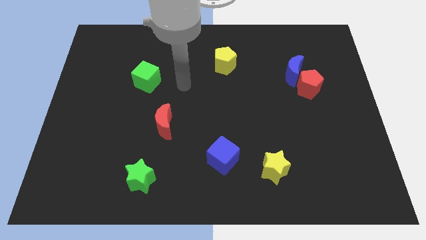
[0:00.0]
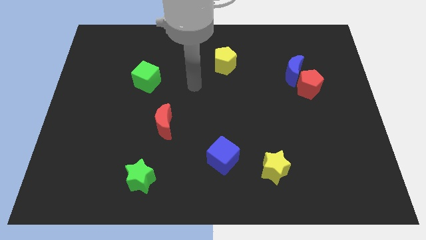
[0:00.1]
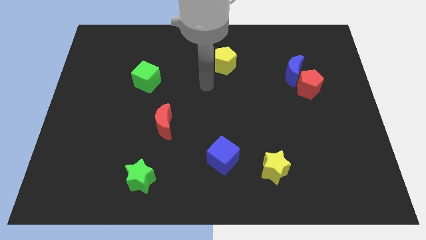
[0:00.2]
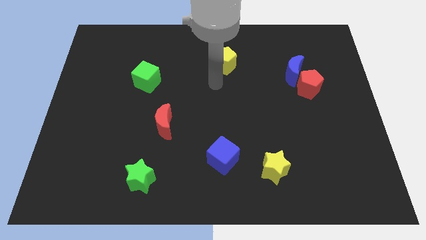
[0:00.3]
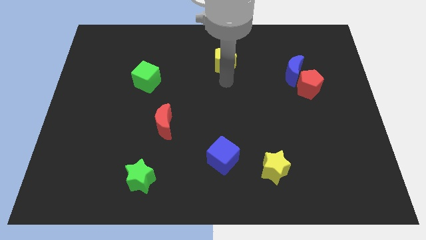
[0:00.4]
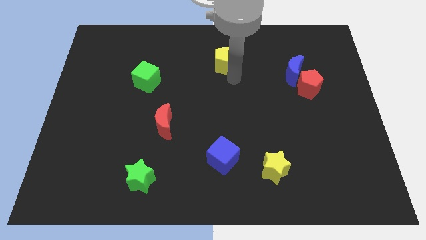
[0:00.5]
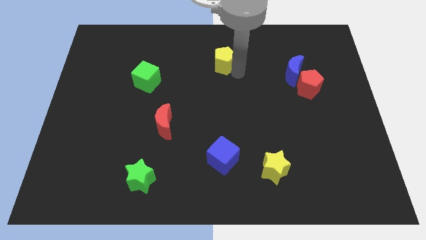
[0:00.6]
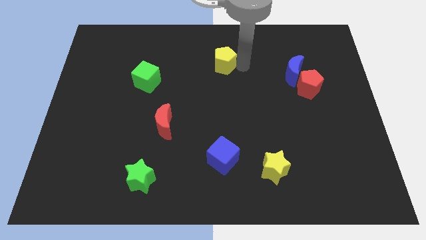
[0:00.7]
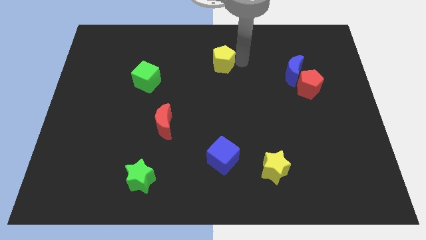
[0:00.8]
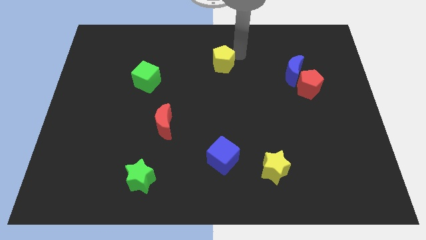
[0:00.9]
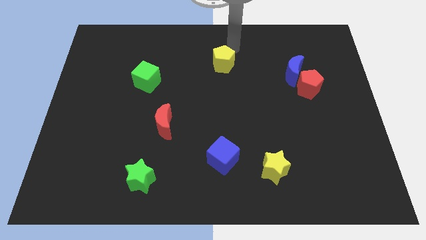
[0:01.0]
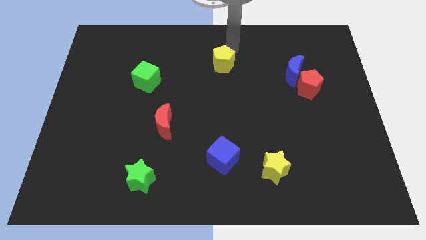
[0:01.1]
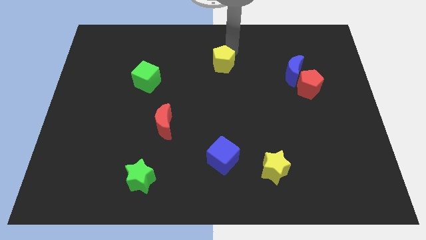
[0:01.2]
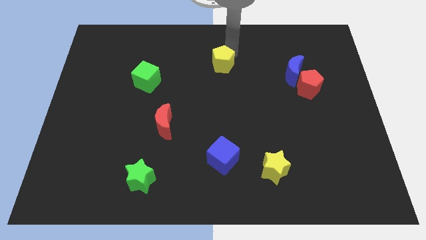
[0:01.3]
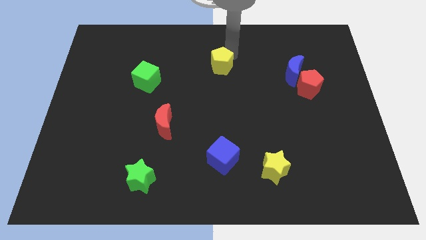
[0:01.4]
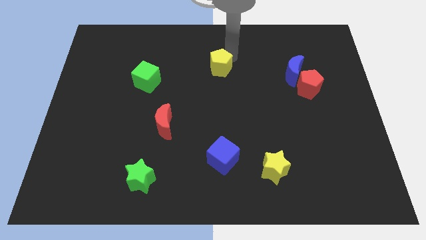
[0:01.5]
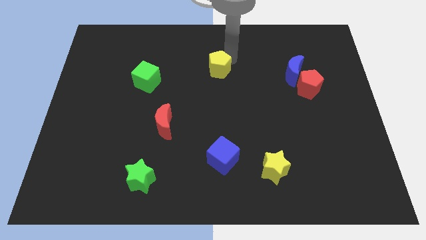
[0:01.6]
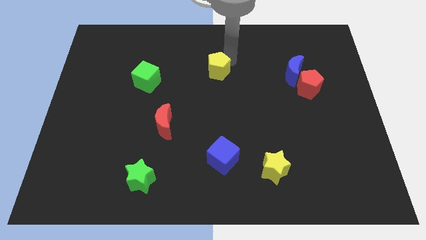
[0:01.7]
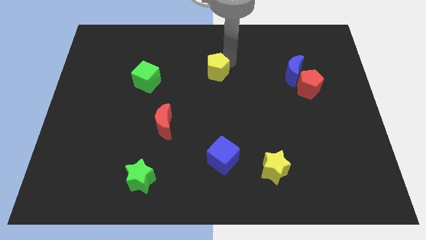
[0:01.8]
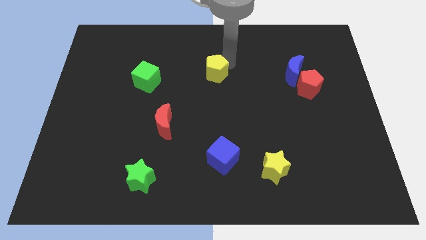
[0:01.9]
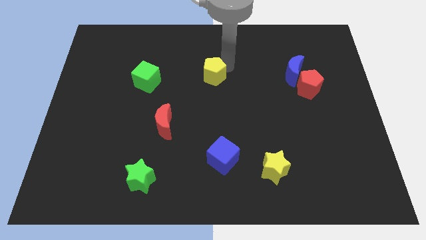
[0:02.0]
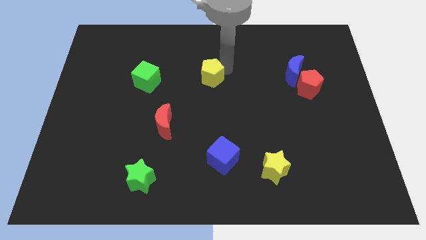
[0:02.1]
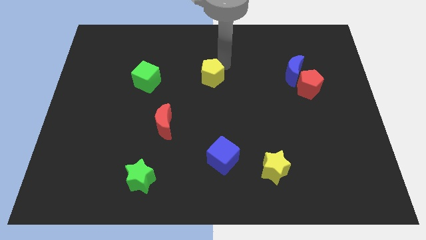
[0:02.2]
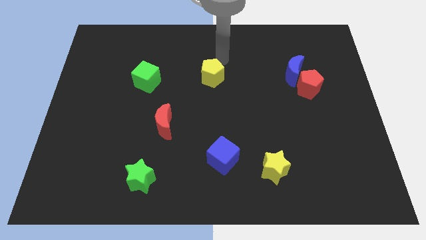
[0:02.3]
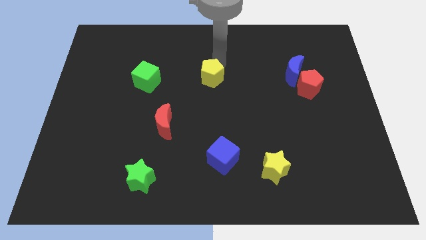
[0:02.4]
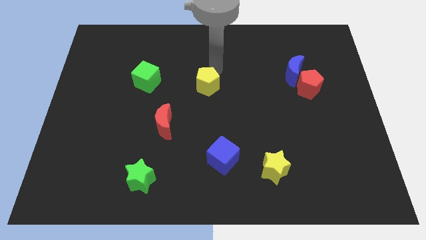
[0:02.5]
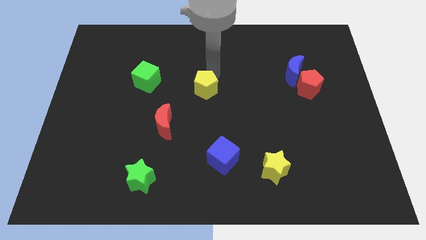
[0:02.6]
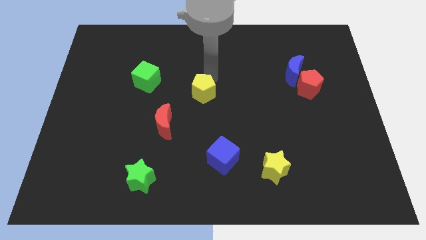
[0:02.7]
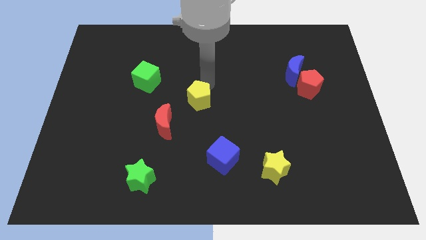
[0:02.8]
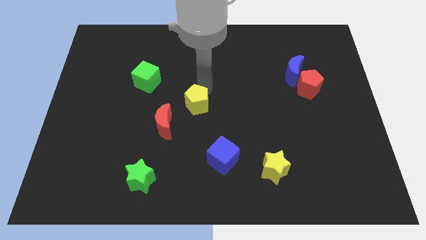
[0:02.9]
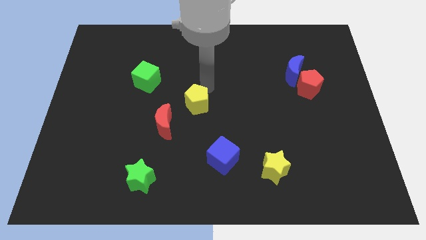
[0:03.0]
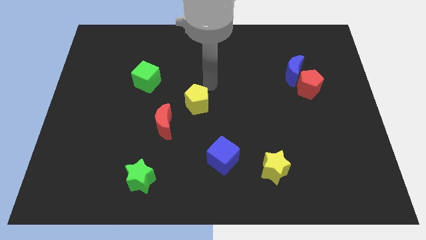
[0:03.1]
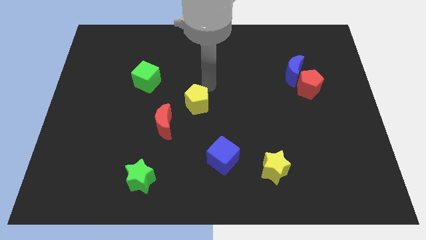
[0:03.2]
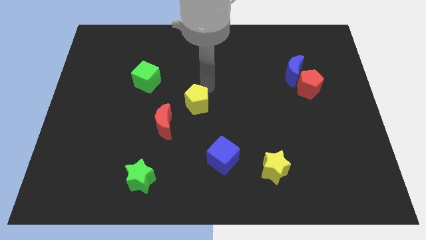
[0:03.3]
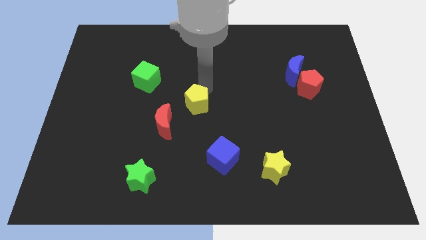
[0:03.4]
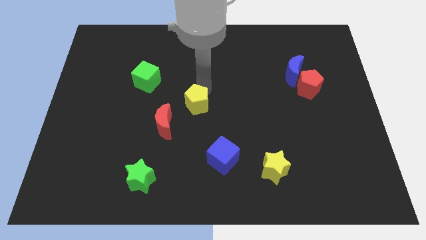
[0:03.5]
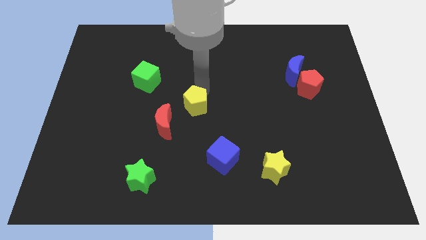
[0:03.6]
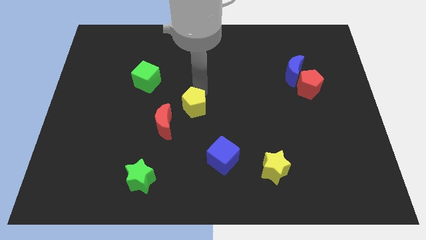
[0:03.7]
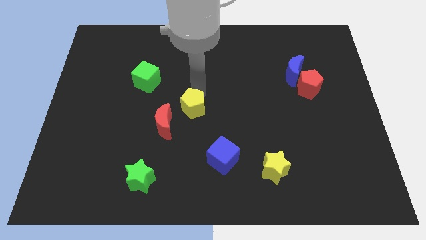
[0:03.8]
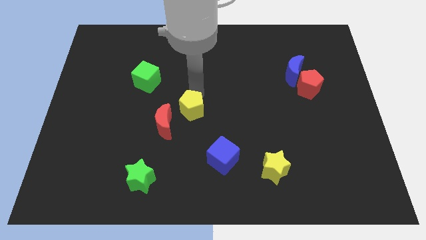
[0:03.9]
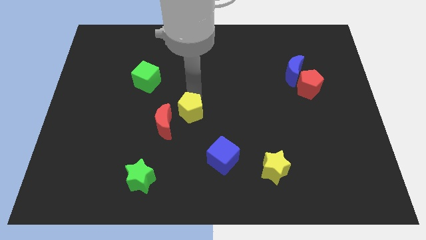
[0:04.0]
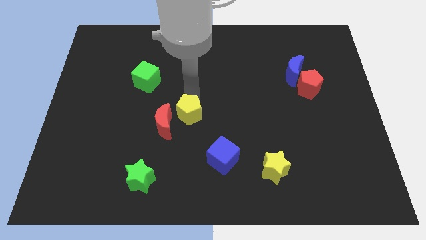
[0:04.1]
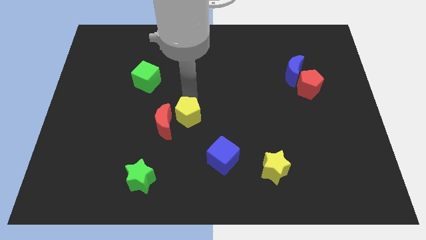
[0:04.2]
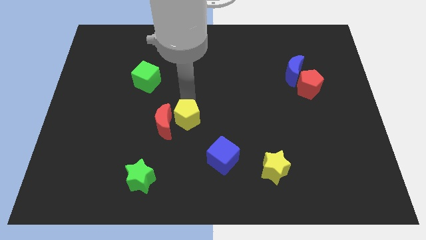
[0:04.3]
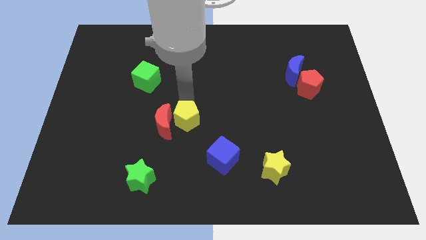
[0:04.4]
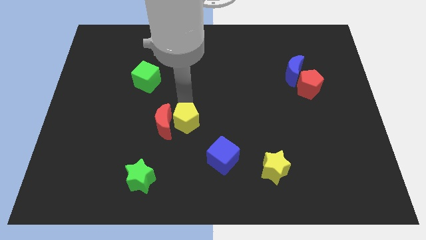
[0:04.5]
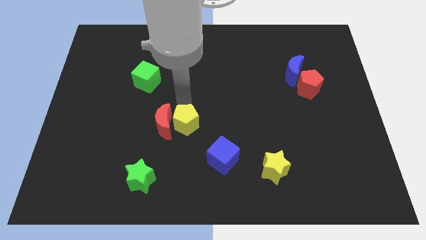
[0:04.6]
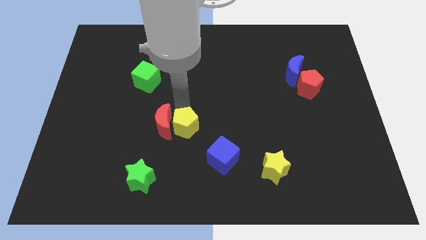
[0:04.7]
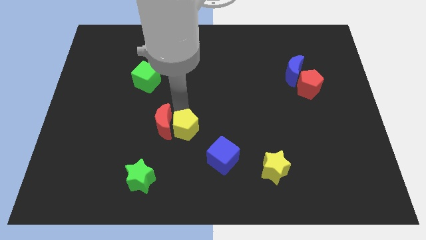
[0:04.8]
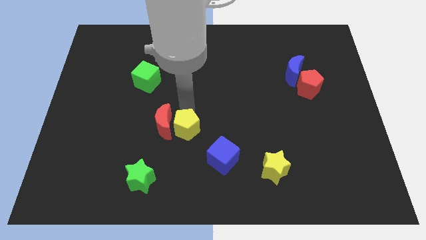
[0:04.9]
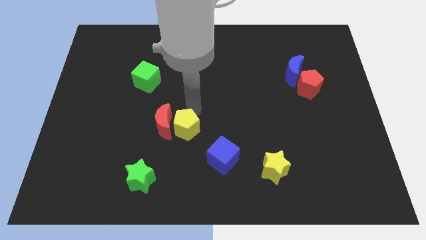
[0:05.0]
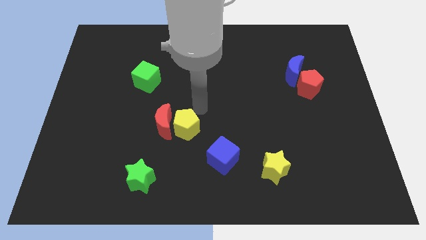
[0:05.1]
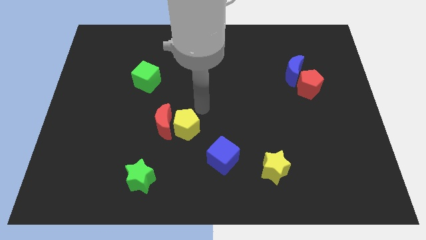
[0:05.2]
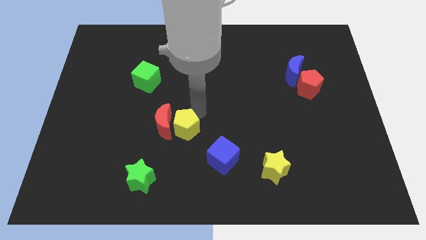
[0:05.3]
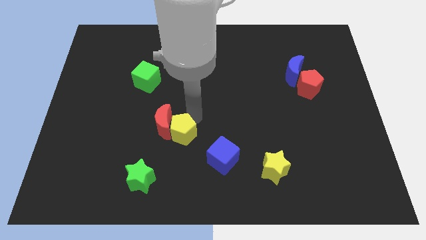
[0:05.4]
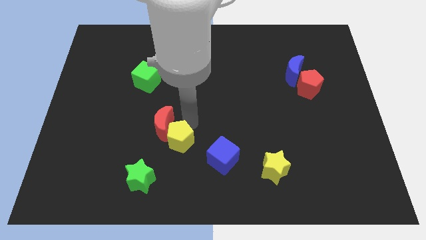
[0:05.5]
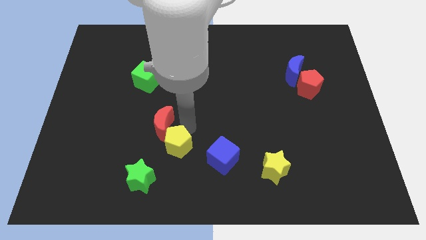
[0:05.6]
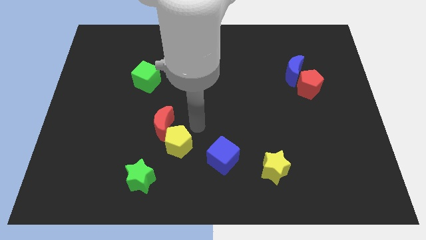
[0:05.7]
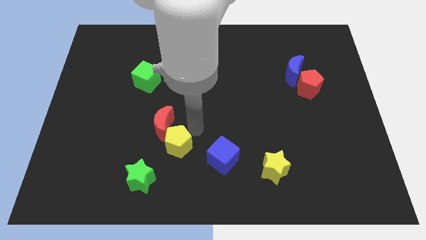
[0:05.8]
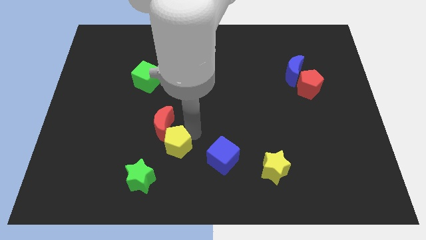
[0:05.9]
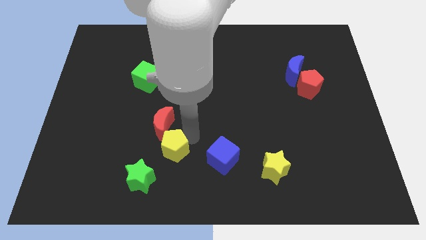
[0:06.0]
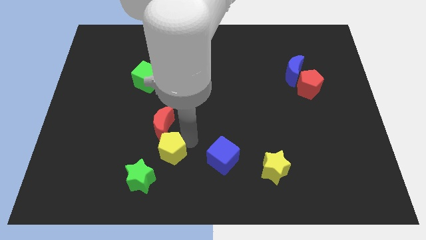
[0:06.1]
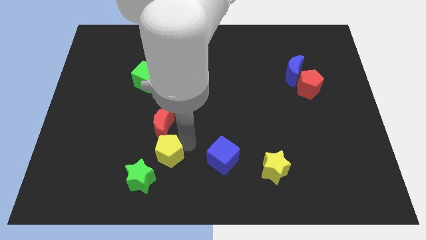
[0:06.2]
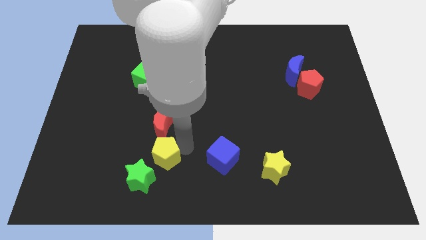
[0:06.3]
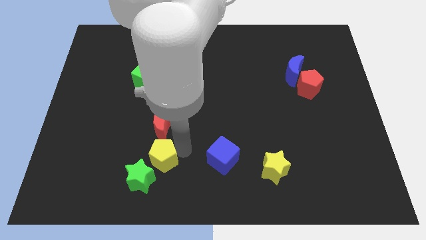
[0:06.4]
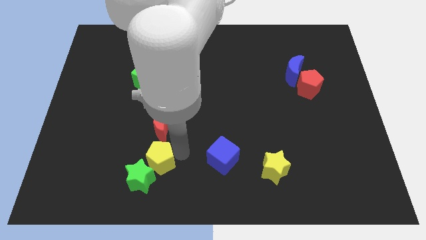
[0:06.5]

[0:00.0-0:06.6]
move the yellow pentagon next to the green star

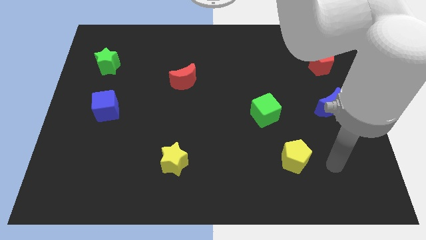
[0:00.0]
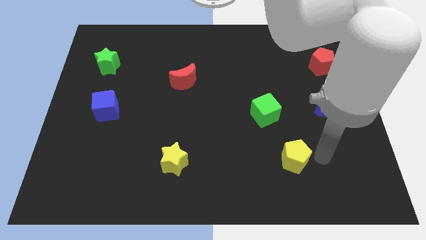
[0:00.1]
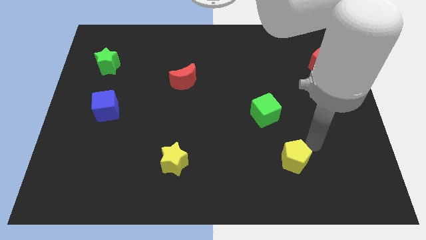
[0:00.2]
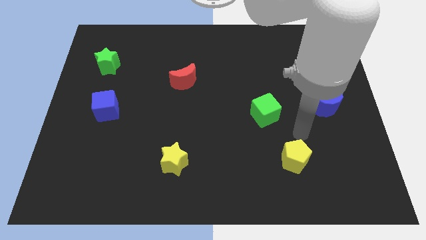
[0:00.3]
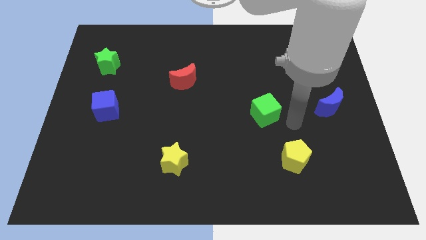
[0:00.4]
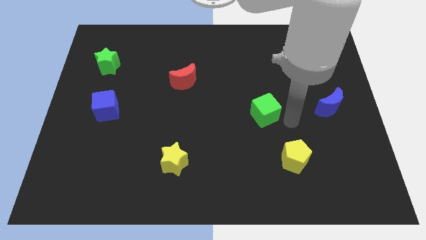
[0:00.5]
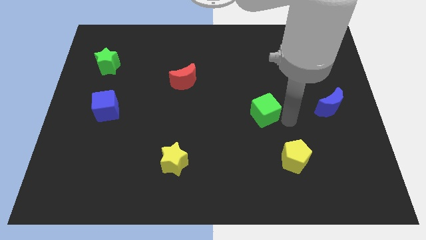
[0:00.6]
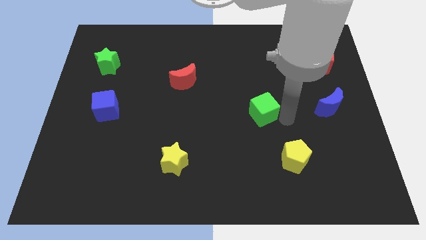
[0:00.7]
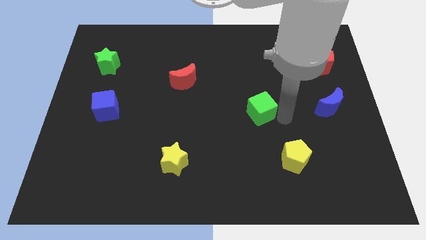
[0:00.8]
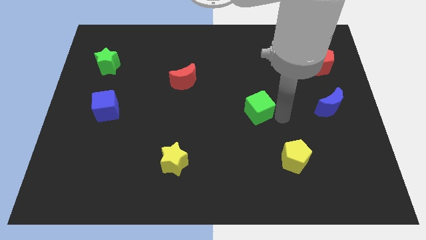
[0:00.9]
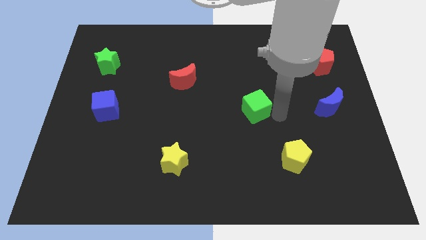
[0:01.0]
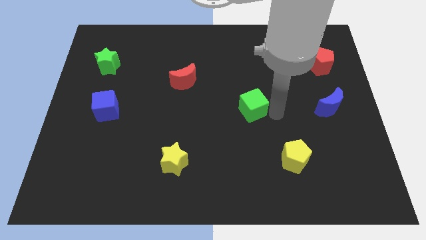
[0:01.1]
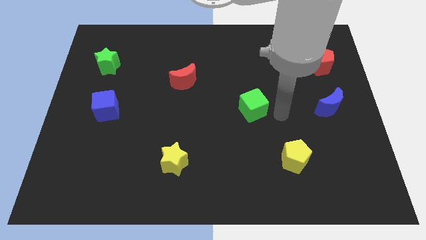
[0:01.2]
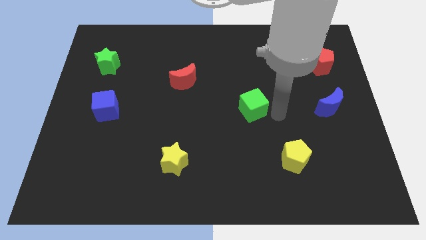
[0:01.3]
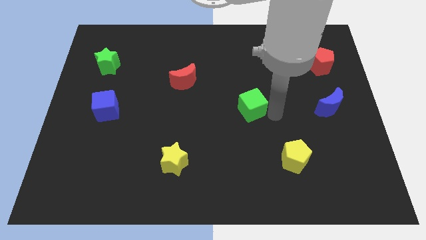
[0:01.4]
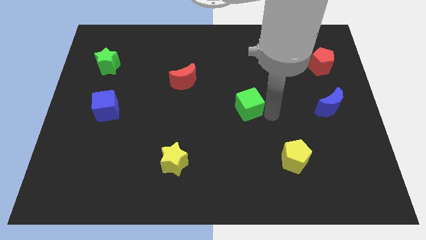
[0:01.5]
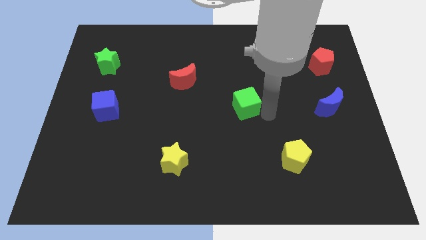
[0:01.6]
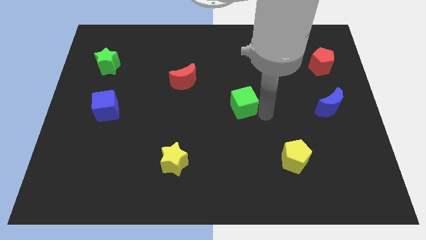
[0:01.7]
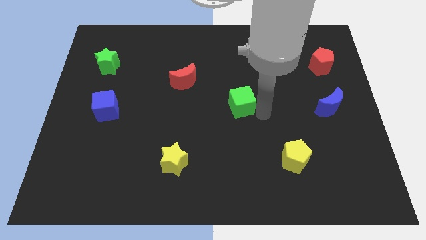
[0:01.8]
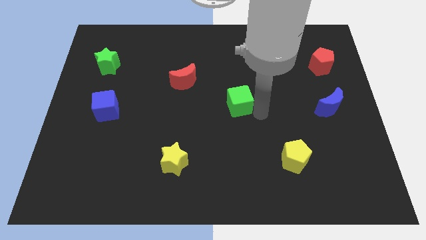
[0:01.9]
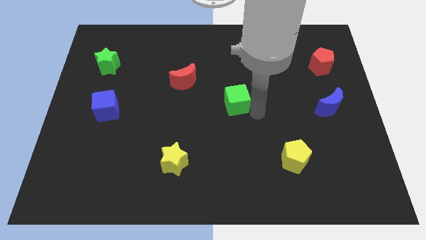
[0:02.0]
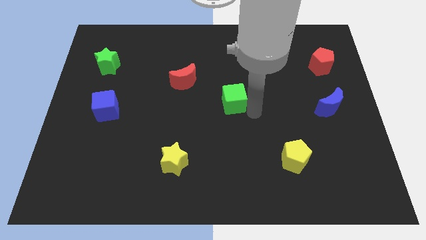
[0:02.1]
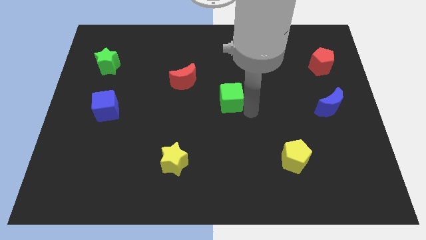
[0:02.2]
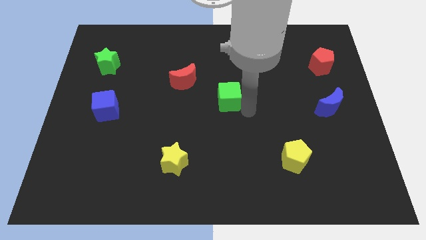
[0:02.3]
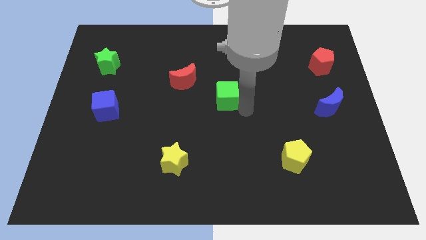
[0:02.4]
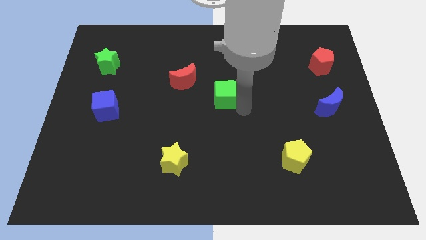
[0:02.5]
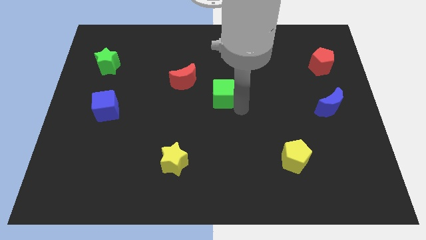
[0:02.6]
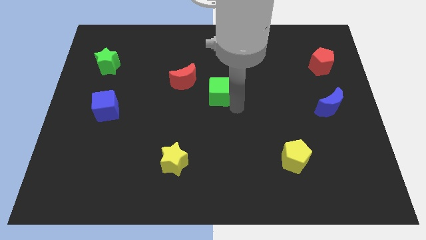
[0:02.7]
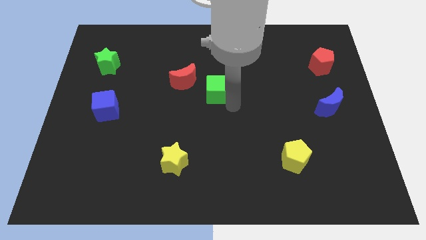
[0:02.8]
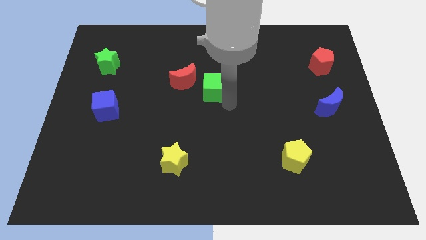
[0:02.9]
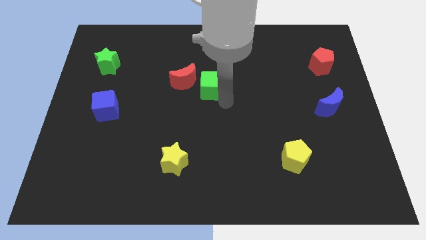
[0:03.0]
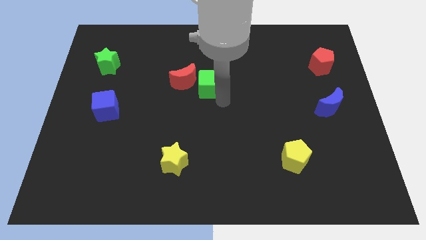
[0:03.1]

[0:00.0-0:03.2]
push the green cube next to the red moon
